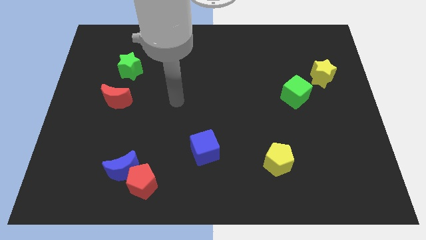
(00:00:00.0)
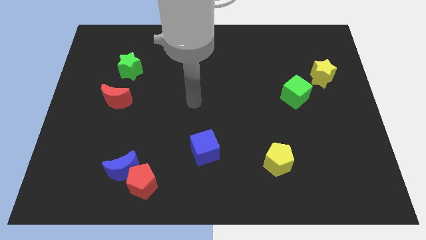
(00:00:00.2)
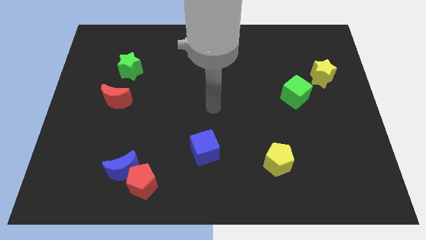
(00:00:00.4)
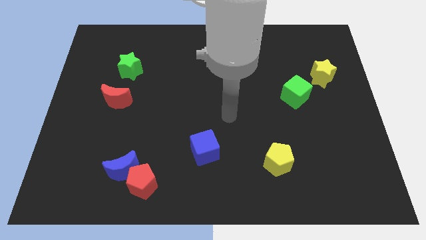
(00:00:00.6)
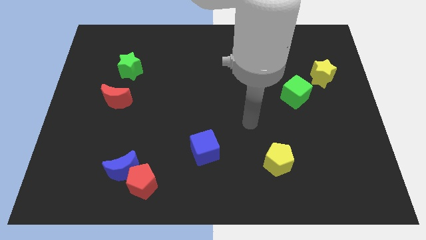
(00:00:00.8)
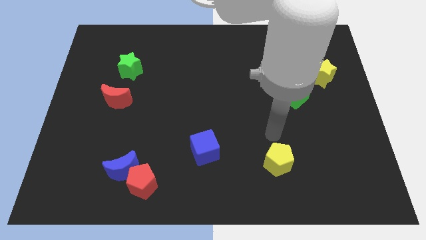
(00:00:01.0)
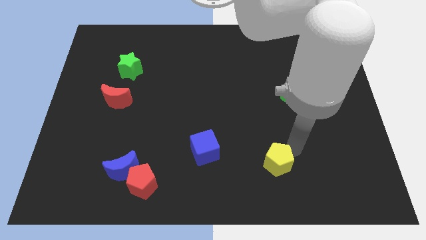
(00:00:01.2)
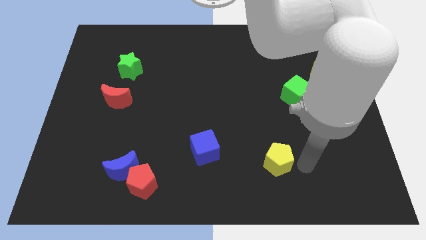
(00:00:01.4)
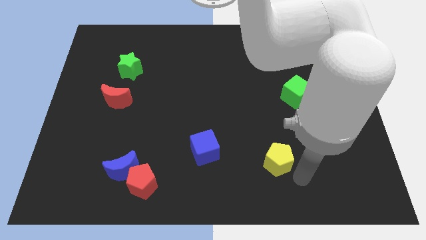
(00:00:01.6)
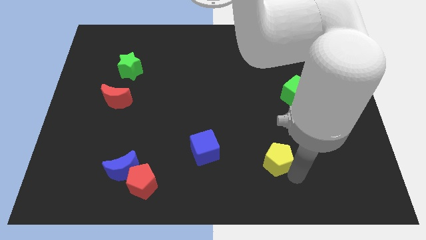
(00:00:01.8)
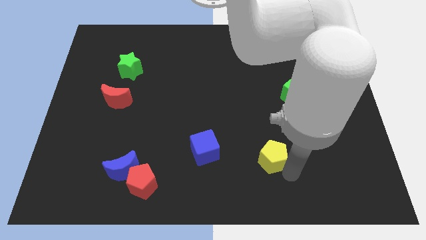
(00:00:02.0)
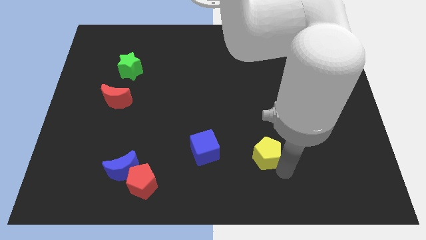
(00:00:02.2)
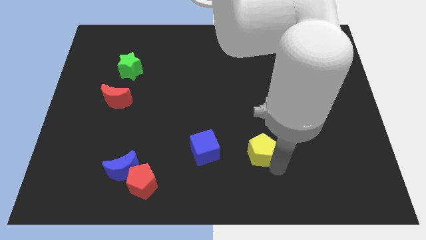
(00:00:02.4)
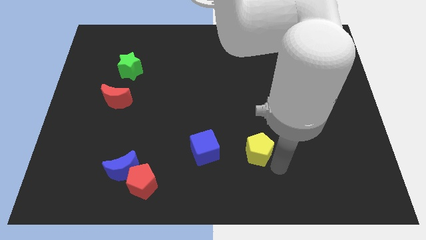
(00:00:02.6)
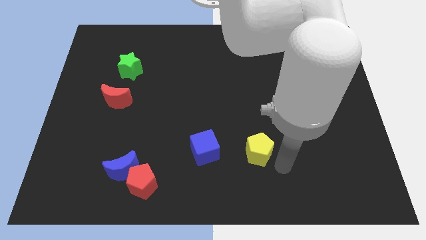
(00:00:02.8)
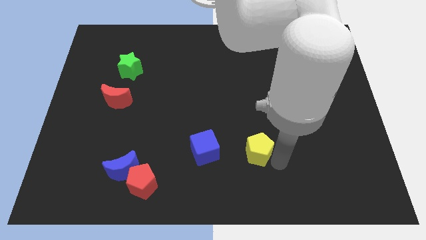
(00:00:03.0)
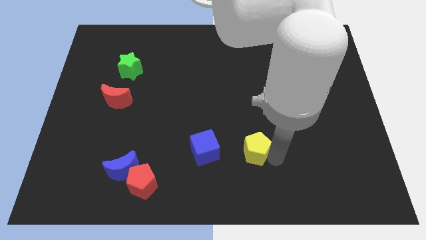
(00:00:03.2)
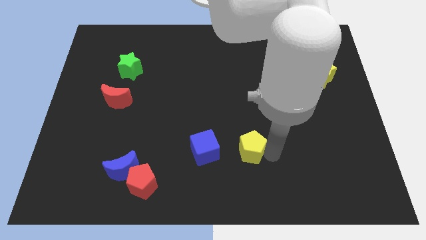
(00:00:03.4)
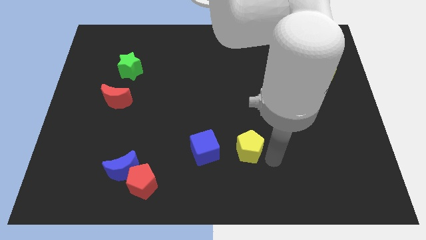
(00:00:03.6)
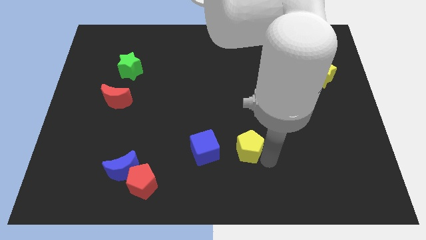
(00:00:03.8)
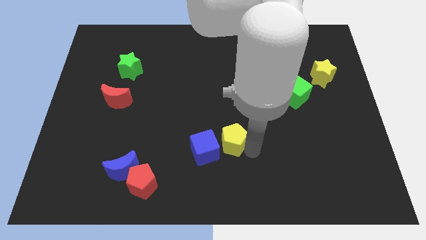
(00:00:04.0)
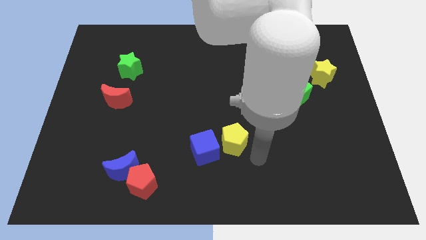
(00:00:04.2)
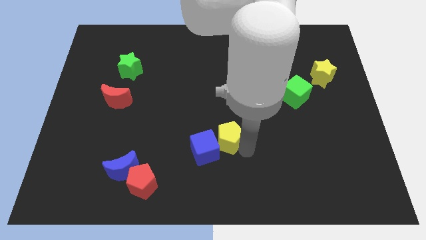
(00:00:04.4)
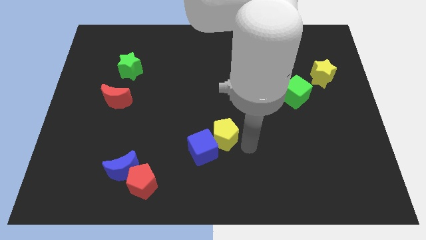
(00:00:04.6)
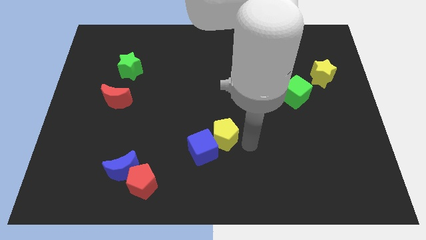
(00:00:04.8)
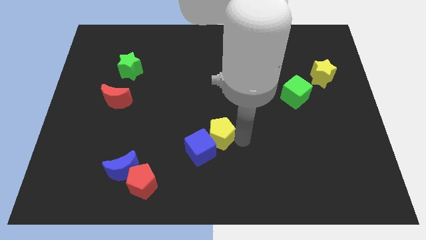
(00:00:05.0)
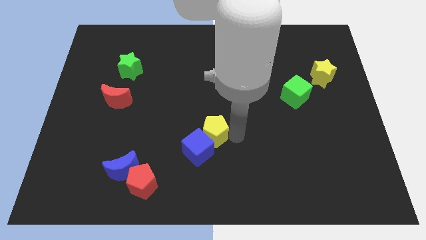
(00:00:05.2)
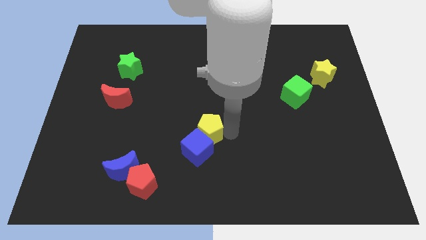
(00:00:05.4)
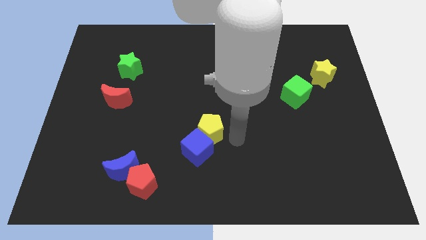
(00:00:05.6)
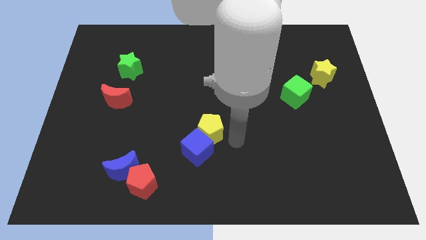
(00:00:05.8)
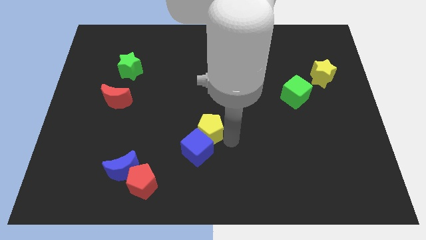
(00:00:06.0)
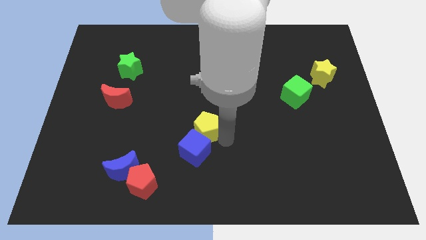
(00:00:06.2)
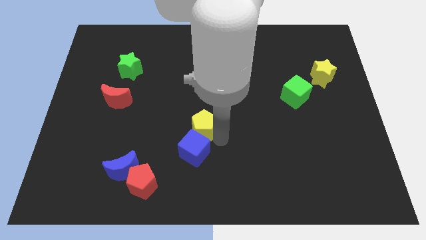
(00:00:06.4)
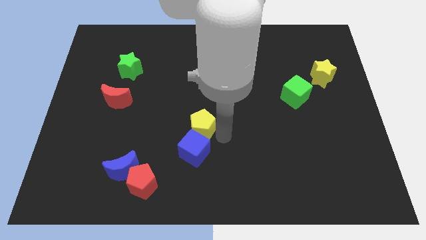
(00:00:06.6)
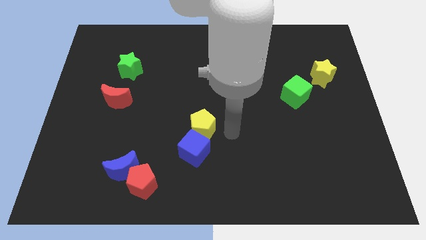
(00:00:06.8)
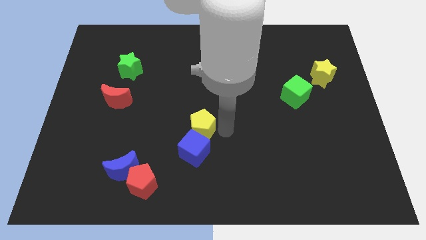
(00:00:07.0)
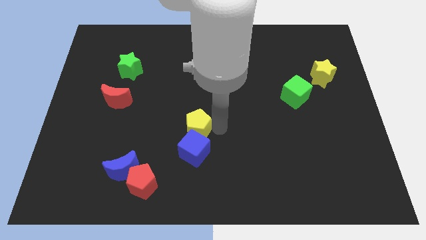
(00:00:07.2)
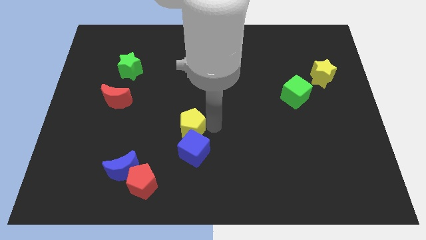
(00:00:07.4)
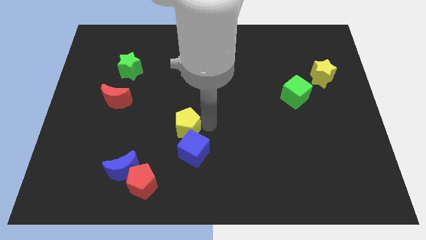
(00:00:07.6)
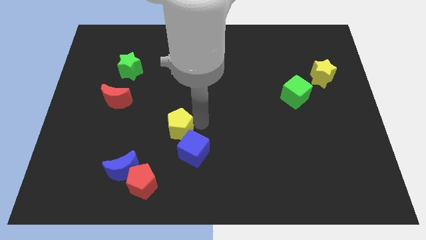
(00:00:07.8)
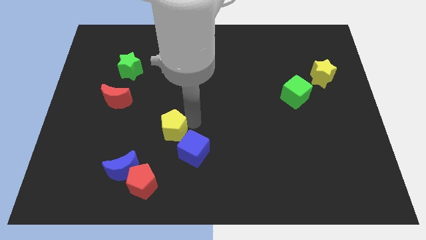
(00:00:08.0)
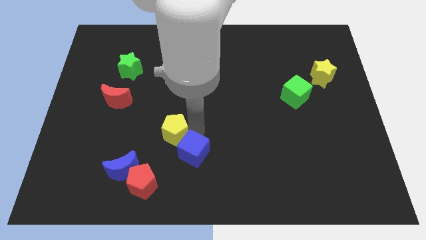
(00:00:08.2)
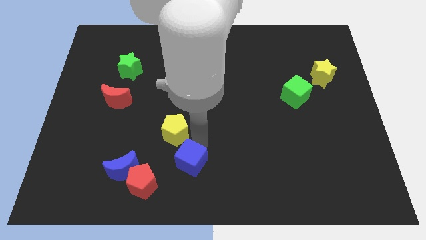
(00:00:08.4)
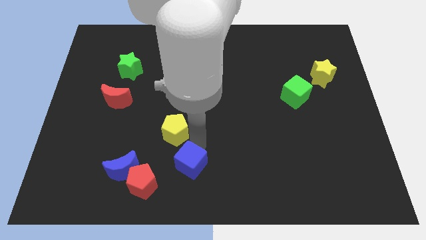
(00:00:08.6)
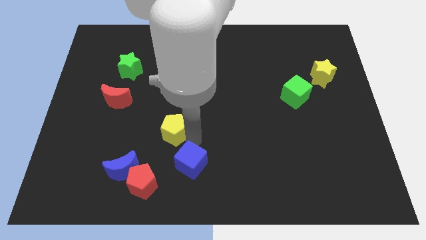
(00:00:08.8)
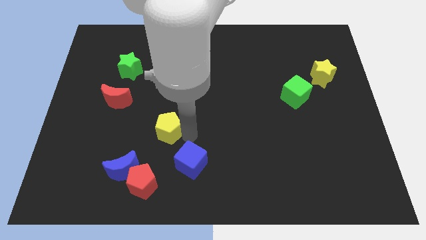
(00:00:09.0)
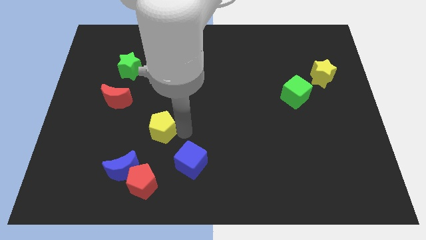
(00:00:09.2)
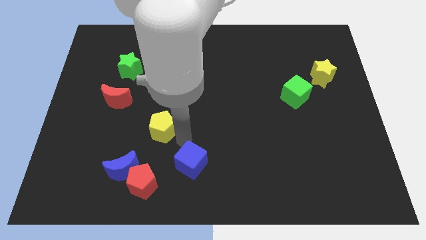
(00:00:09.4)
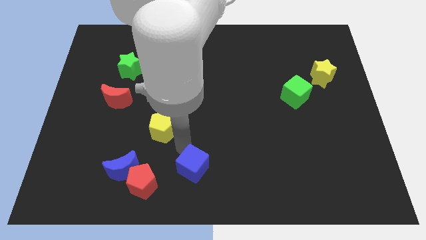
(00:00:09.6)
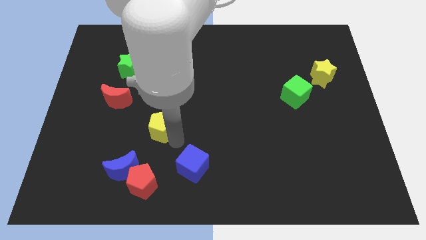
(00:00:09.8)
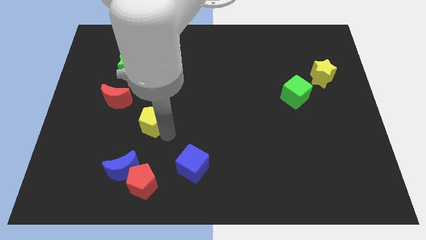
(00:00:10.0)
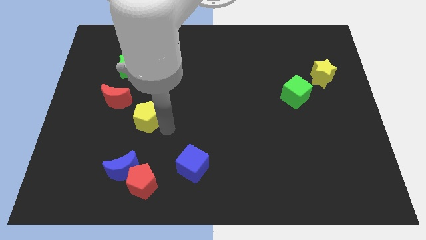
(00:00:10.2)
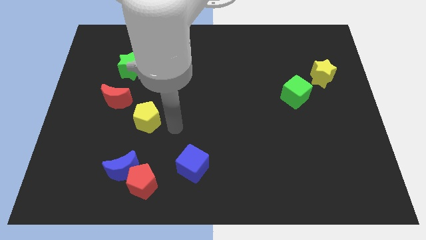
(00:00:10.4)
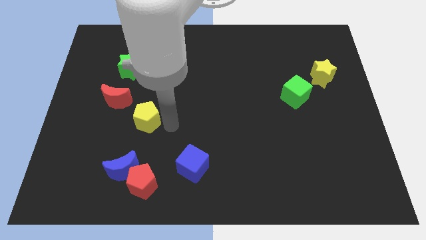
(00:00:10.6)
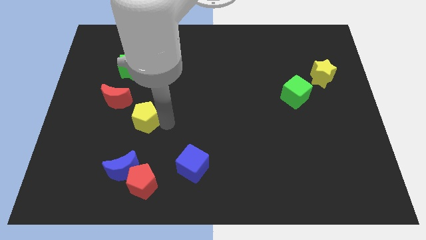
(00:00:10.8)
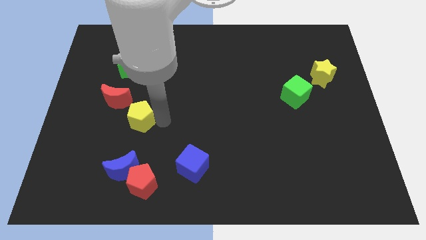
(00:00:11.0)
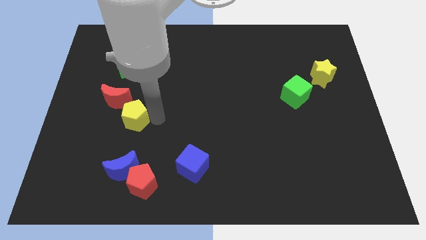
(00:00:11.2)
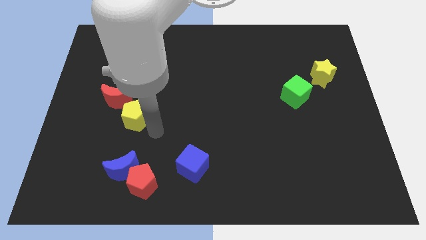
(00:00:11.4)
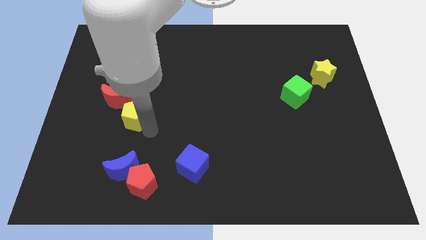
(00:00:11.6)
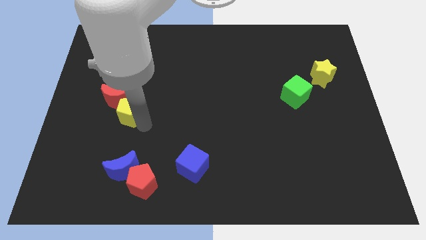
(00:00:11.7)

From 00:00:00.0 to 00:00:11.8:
put the yellow pentagon next to the red moon
